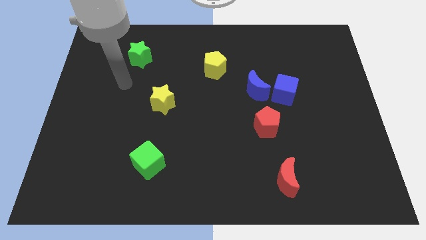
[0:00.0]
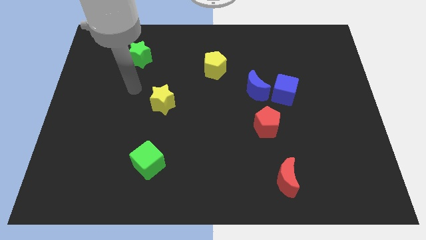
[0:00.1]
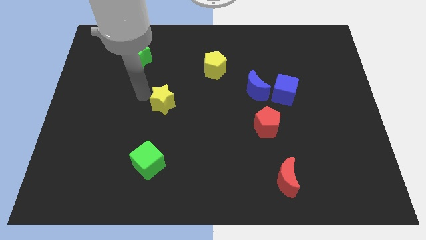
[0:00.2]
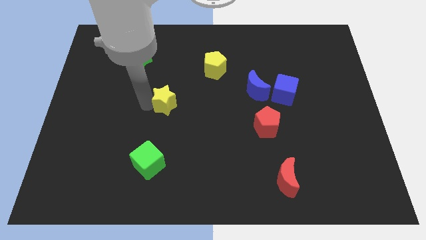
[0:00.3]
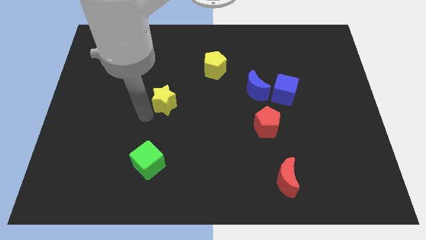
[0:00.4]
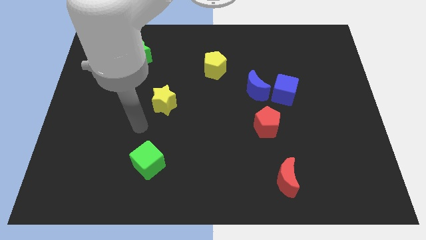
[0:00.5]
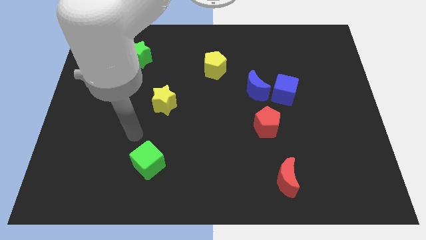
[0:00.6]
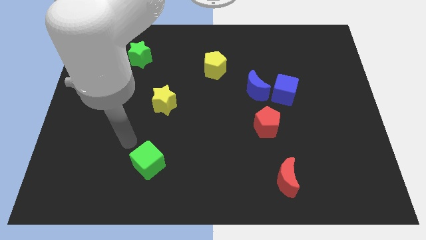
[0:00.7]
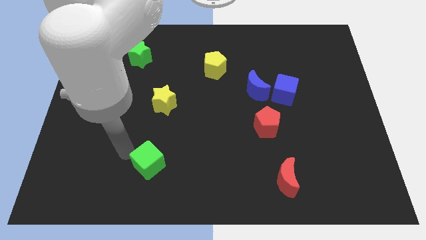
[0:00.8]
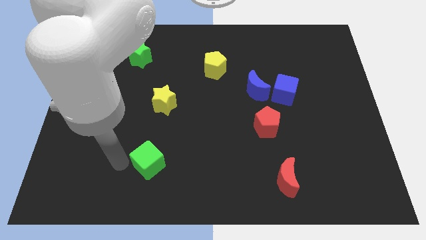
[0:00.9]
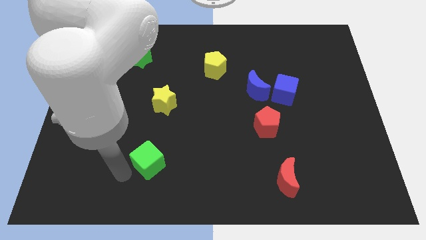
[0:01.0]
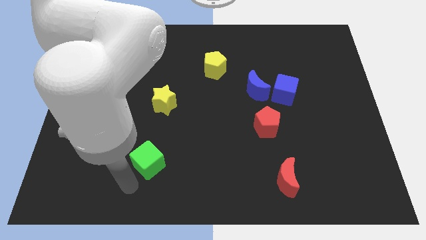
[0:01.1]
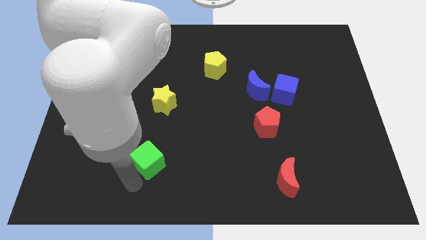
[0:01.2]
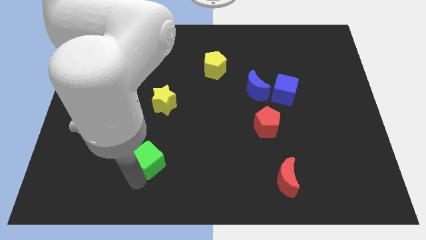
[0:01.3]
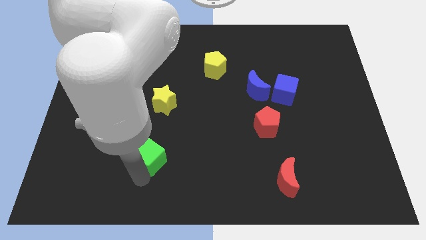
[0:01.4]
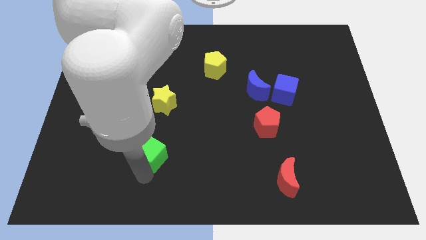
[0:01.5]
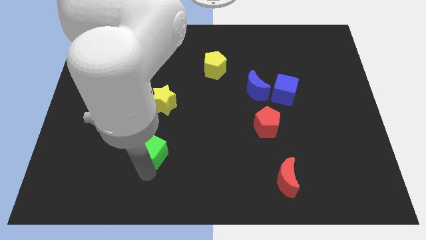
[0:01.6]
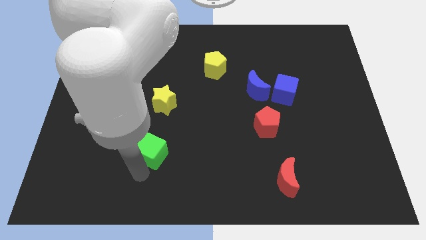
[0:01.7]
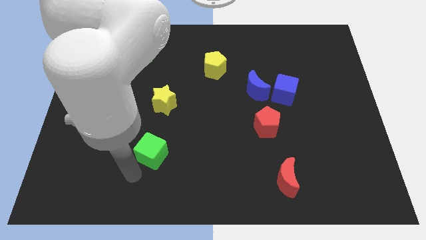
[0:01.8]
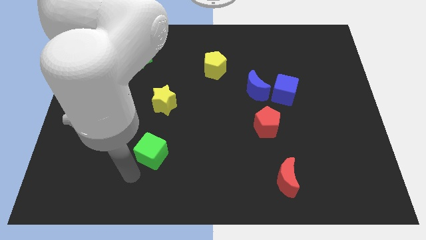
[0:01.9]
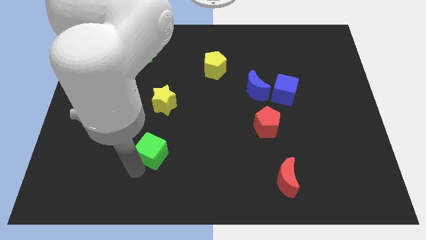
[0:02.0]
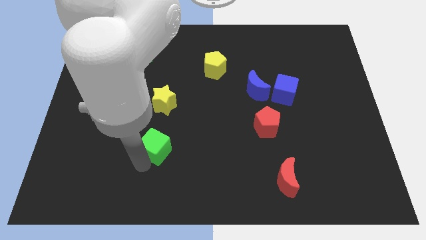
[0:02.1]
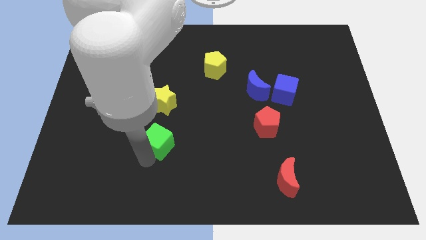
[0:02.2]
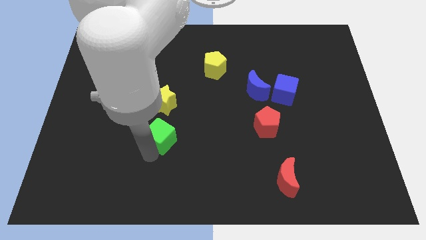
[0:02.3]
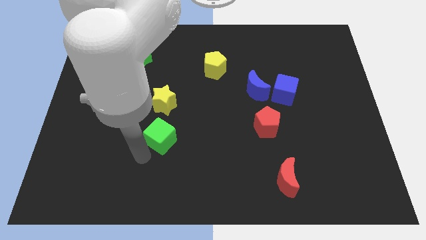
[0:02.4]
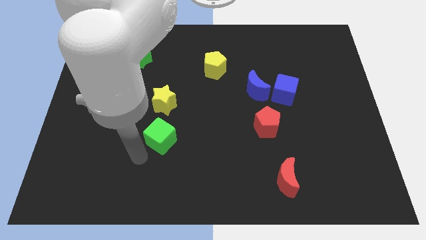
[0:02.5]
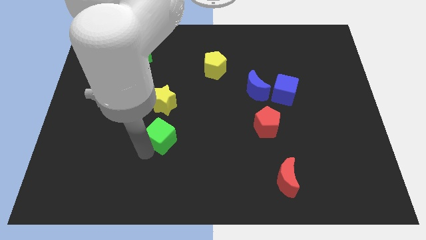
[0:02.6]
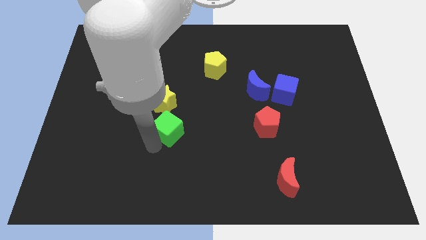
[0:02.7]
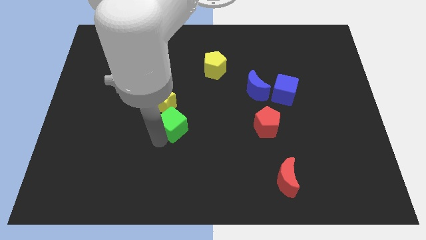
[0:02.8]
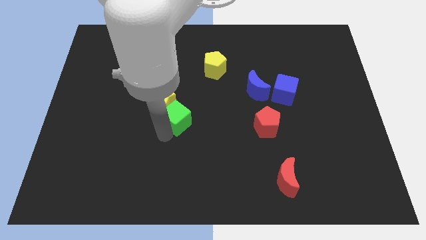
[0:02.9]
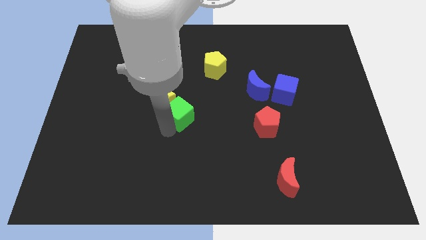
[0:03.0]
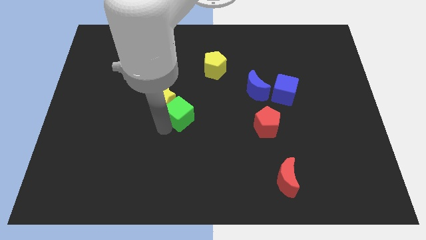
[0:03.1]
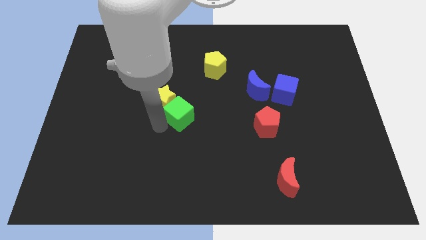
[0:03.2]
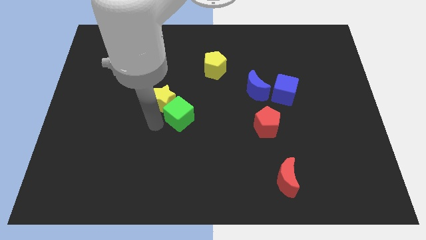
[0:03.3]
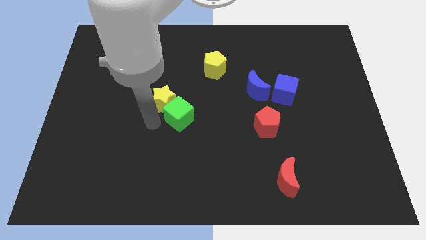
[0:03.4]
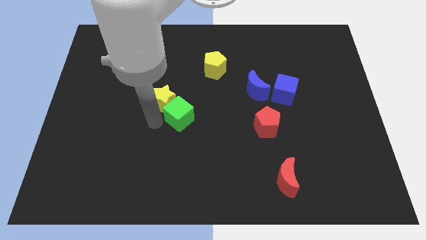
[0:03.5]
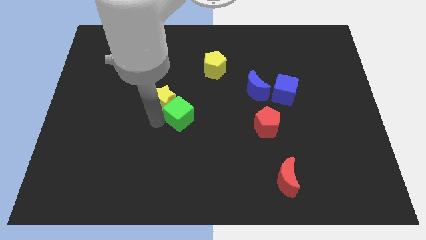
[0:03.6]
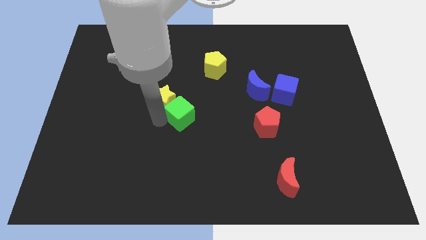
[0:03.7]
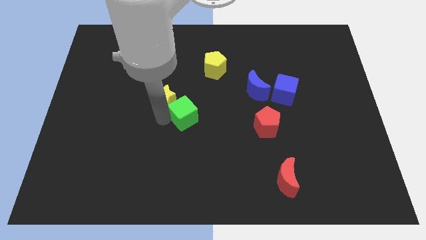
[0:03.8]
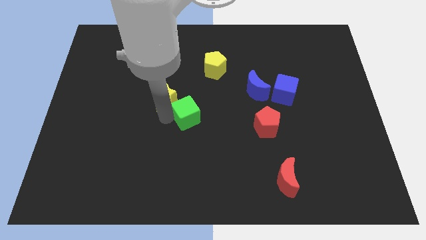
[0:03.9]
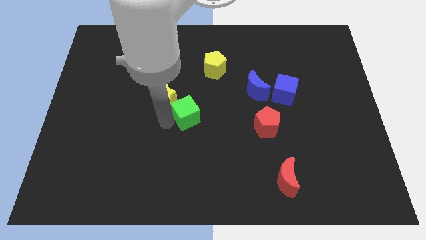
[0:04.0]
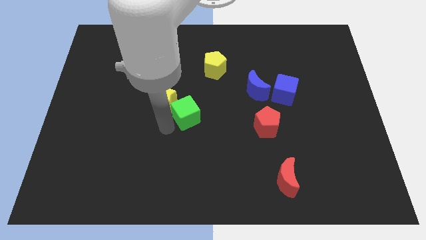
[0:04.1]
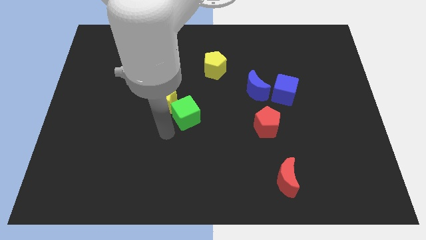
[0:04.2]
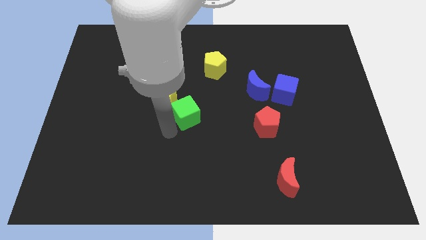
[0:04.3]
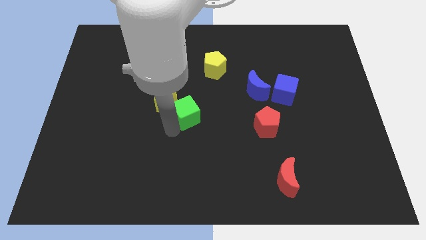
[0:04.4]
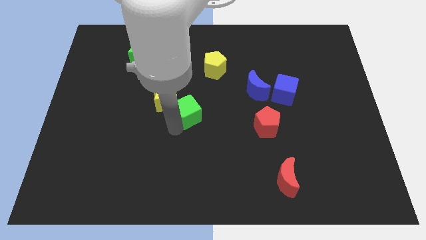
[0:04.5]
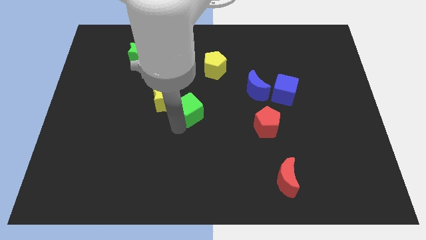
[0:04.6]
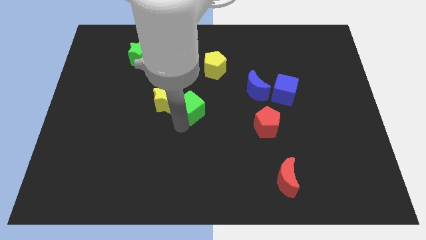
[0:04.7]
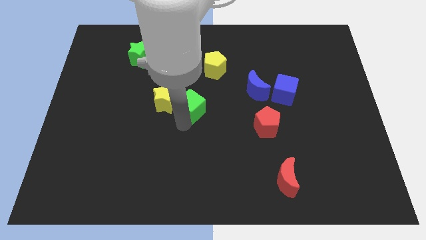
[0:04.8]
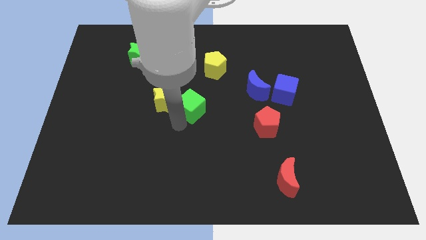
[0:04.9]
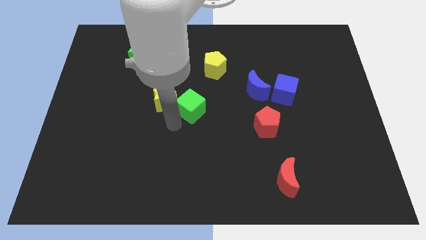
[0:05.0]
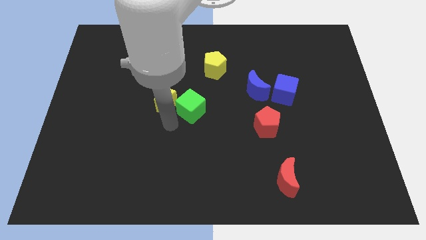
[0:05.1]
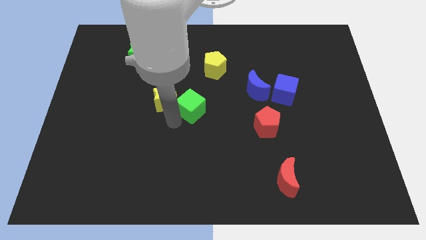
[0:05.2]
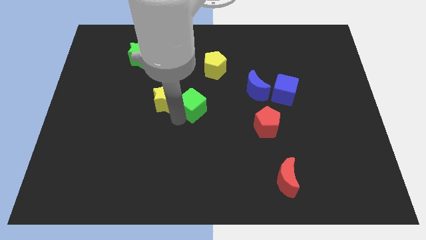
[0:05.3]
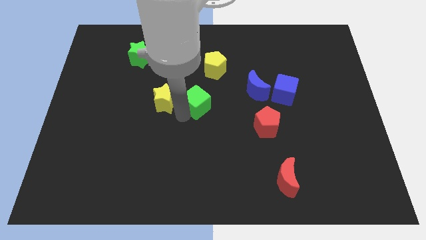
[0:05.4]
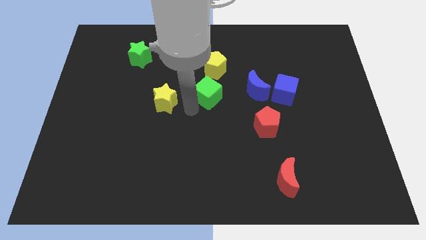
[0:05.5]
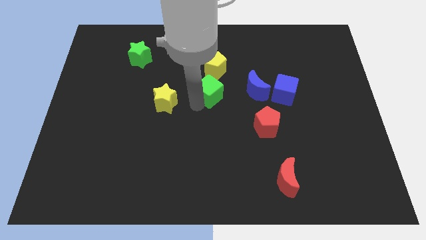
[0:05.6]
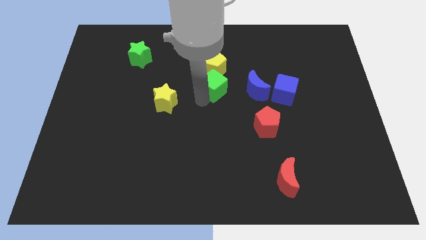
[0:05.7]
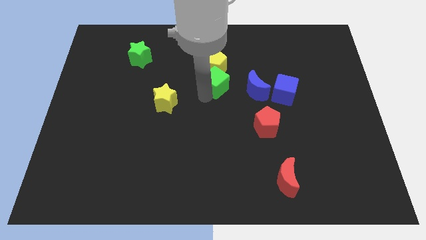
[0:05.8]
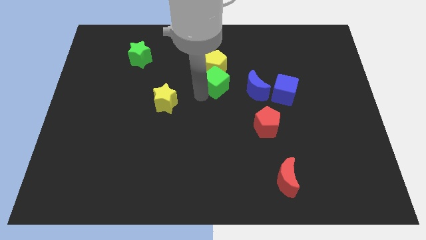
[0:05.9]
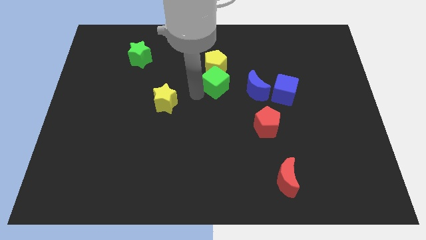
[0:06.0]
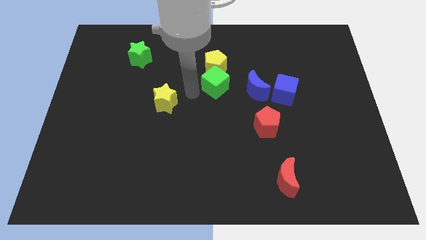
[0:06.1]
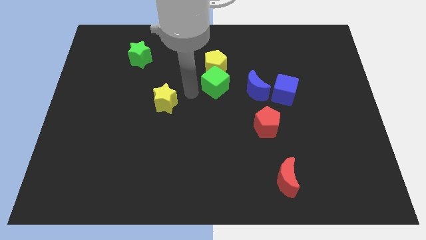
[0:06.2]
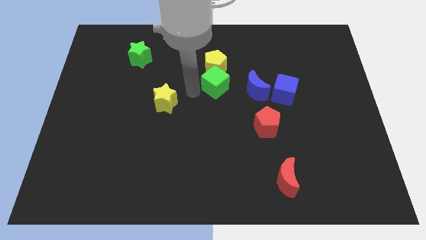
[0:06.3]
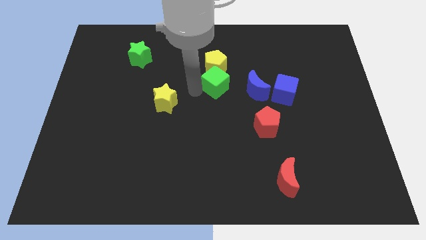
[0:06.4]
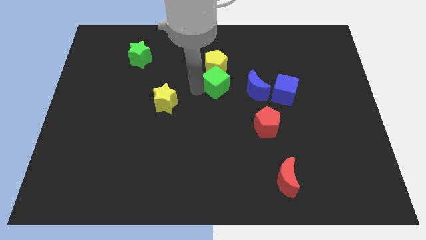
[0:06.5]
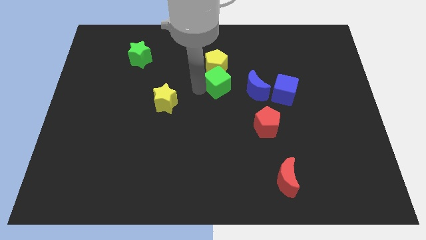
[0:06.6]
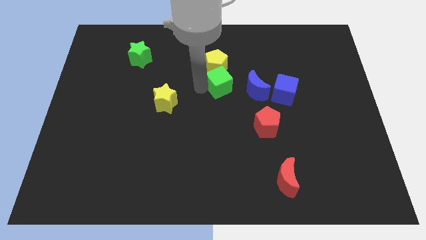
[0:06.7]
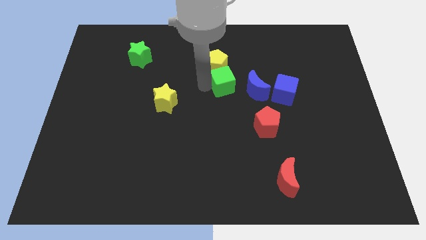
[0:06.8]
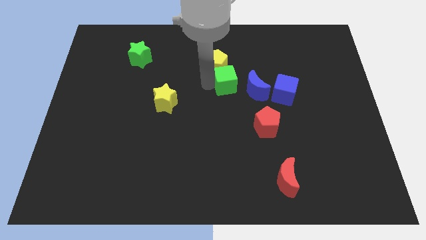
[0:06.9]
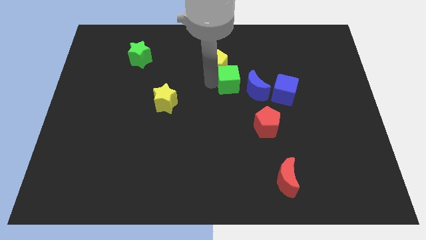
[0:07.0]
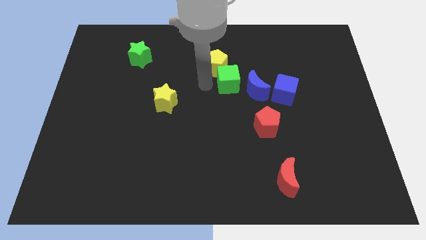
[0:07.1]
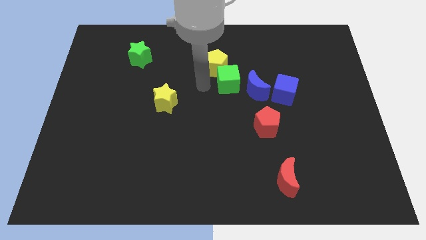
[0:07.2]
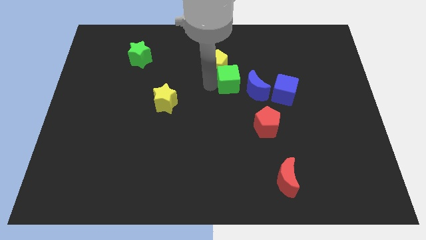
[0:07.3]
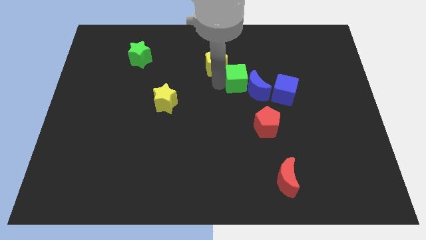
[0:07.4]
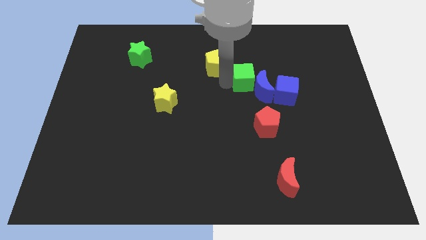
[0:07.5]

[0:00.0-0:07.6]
put the green cube to the top side of the red pentagon
